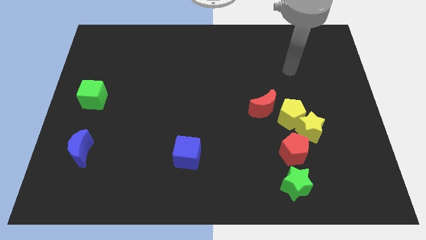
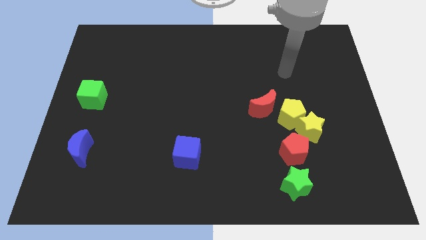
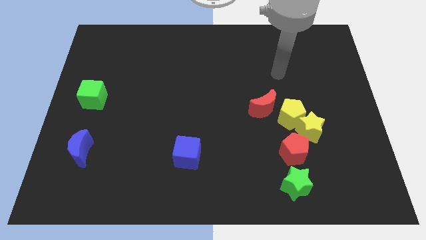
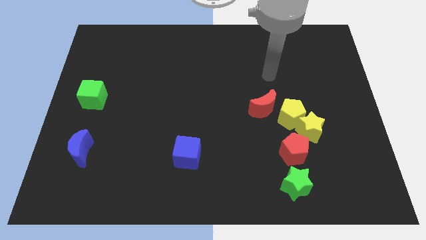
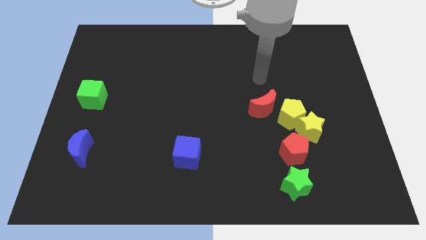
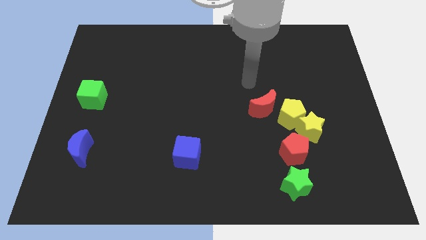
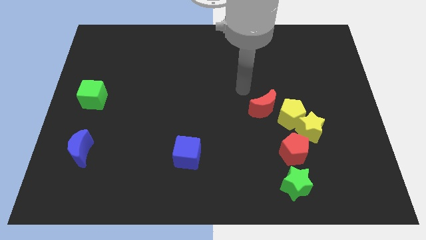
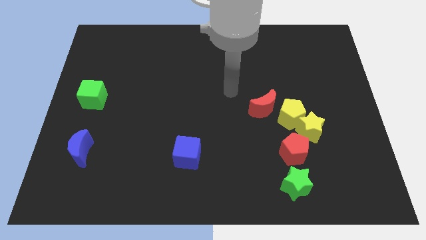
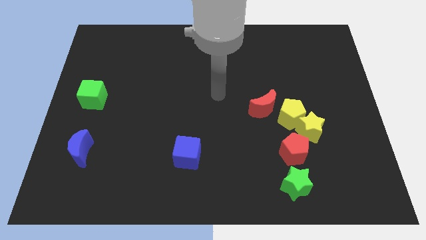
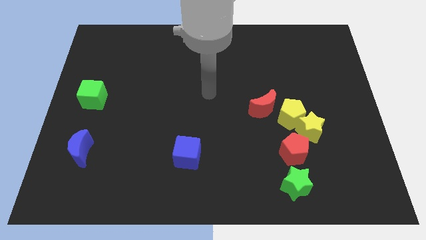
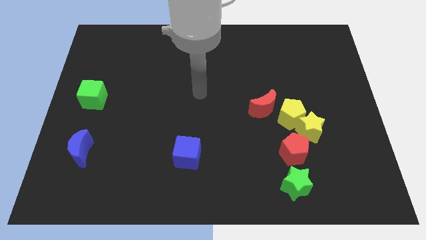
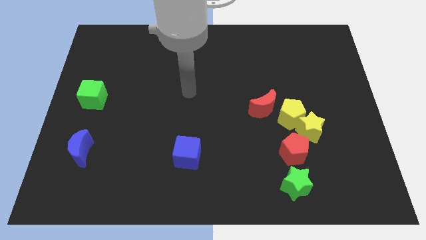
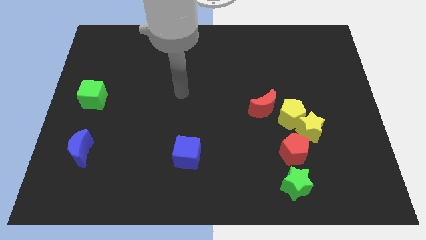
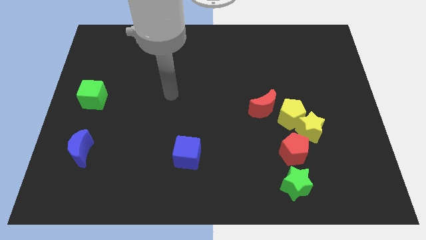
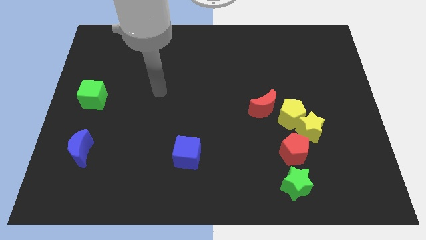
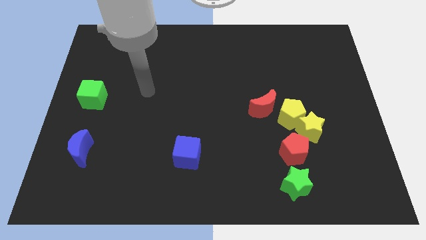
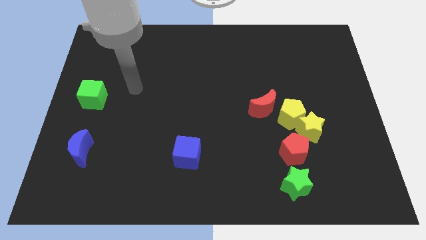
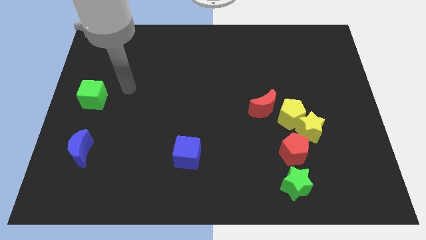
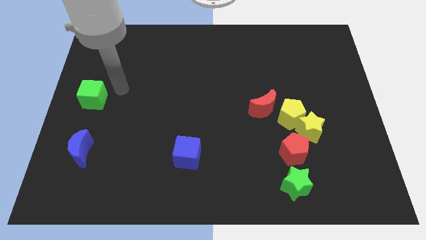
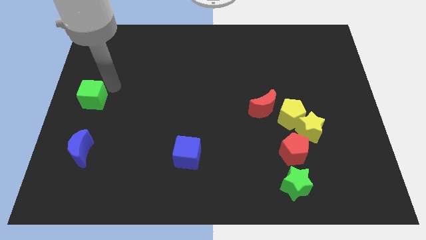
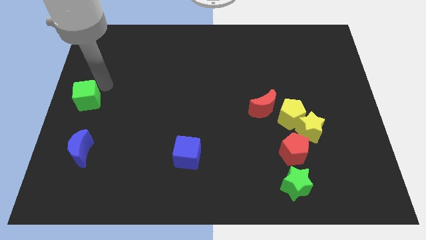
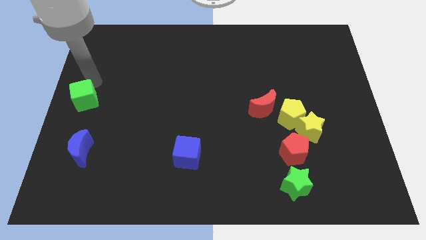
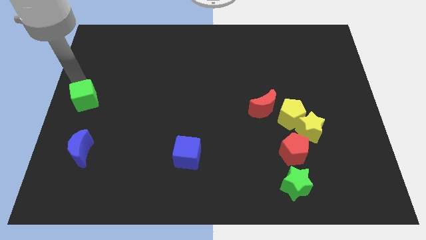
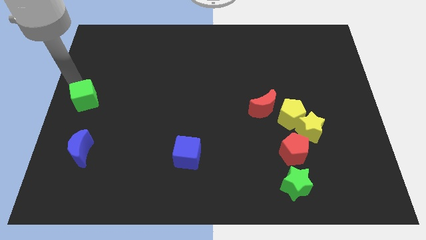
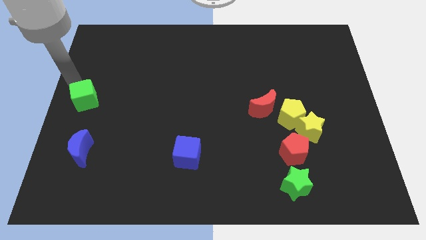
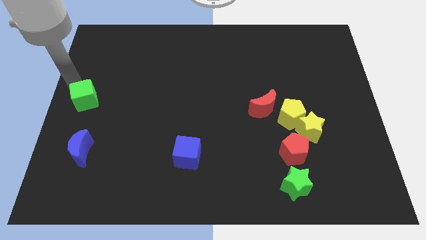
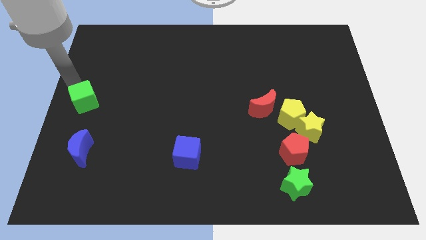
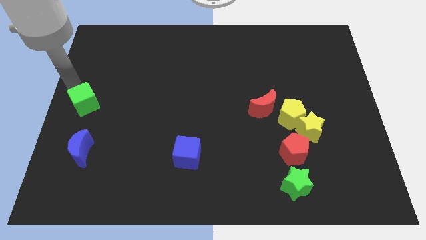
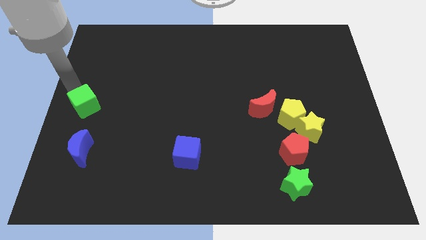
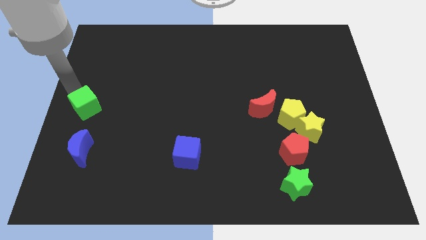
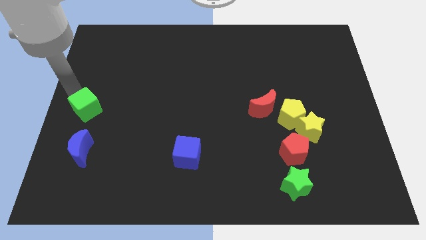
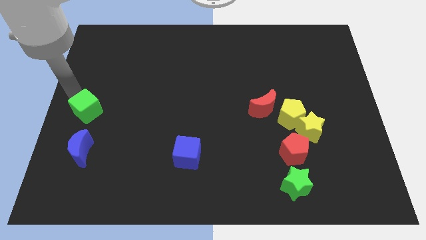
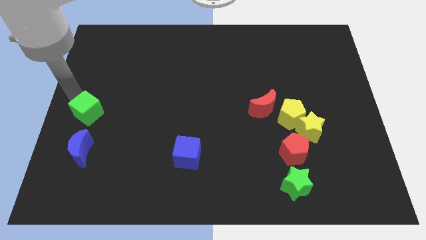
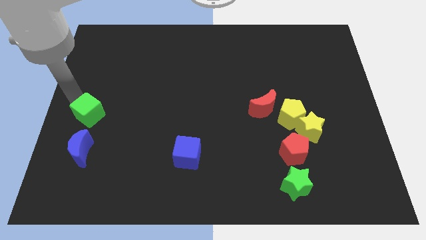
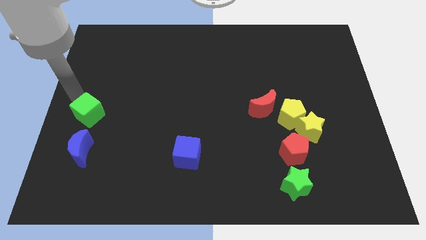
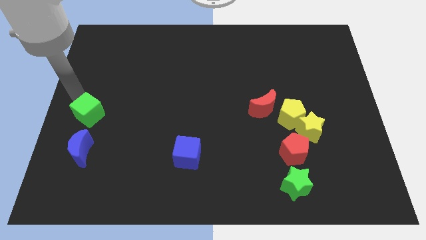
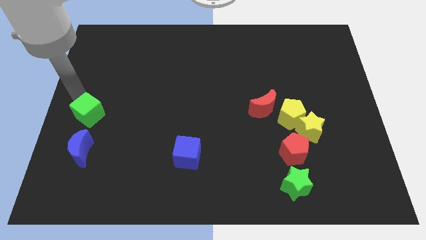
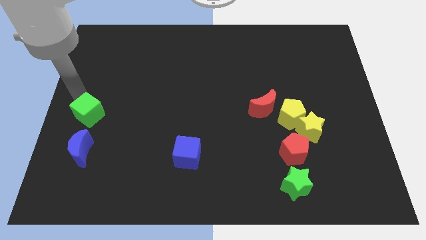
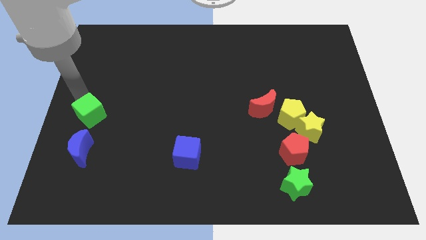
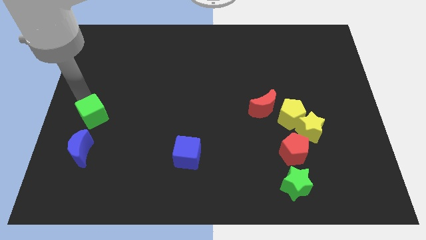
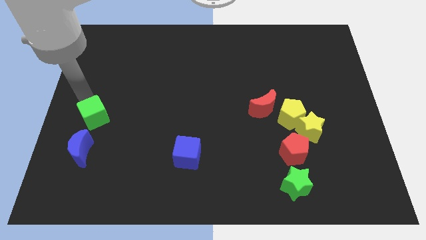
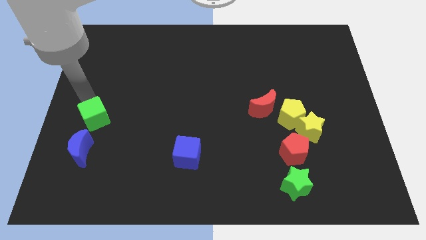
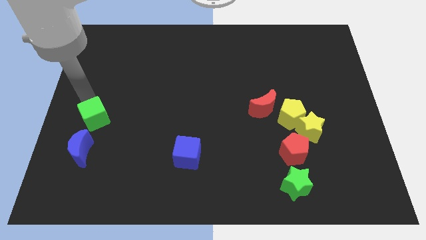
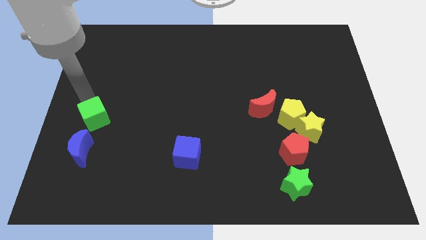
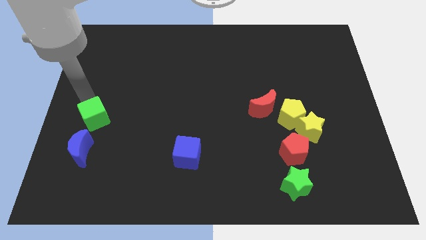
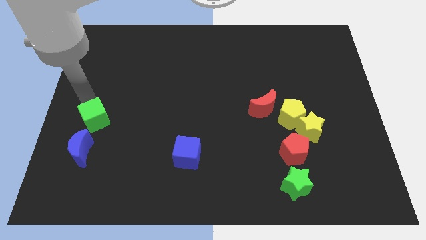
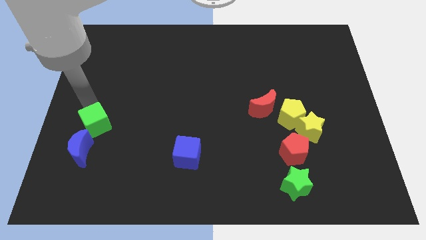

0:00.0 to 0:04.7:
slightly push the green cube down

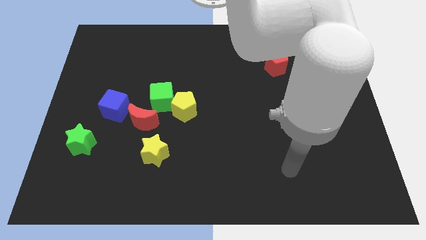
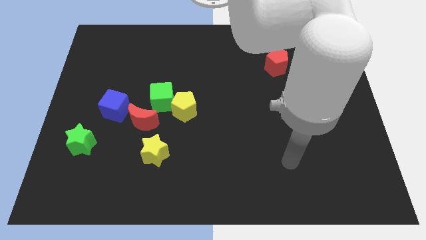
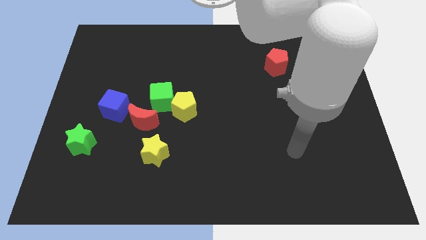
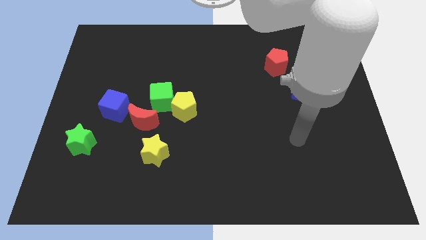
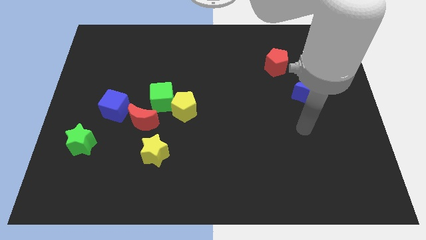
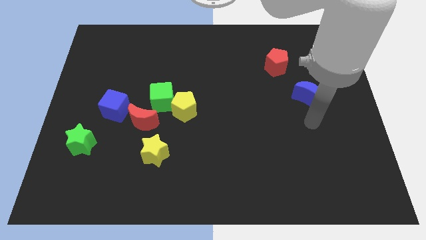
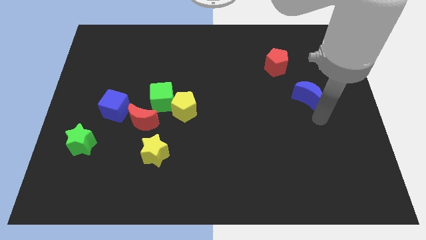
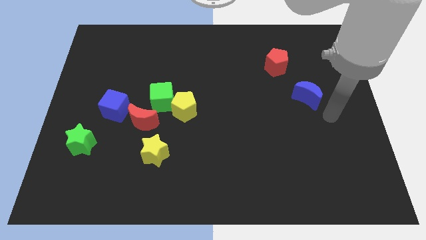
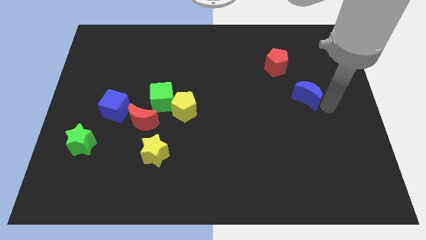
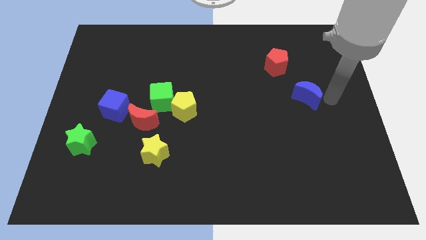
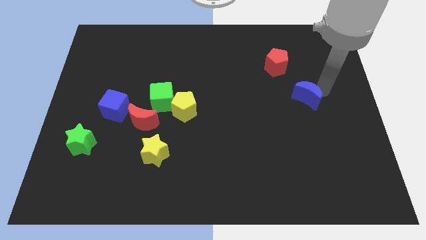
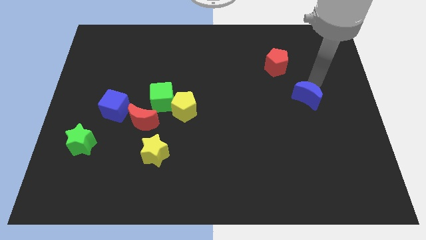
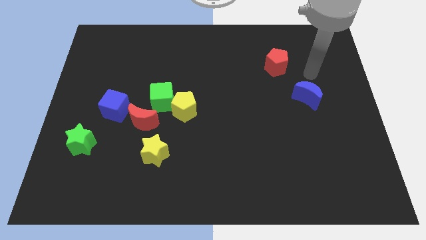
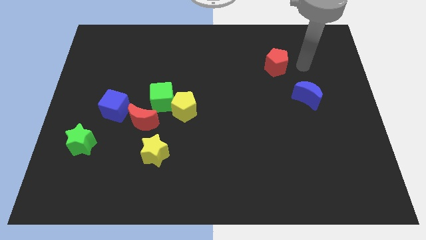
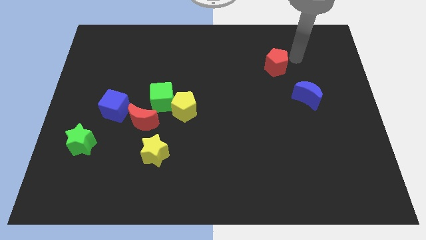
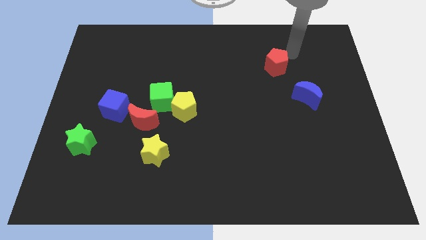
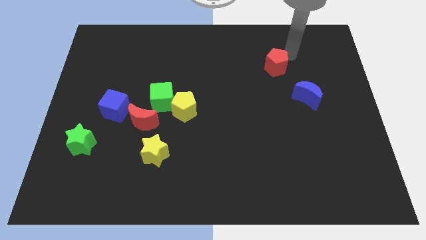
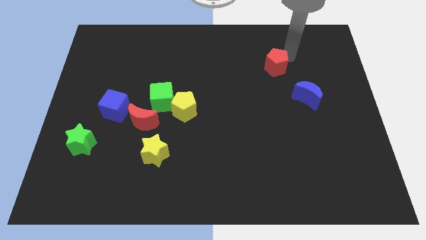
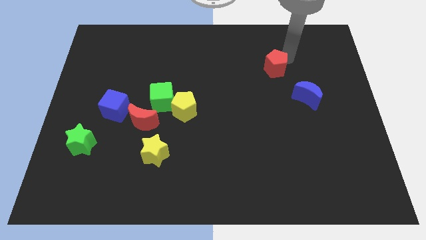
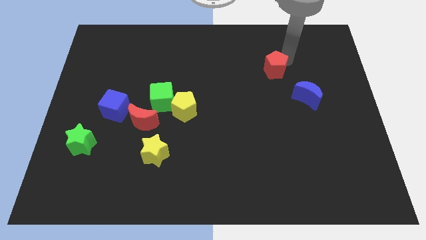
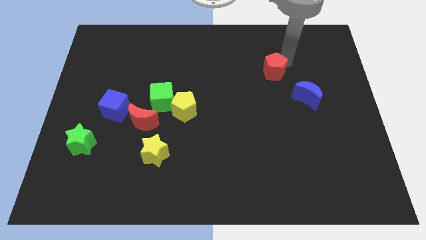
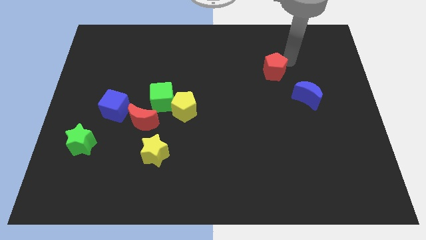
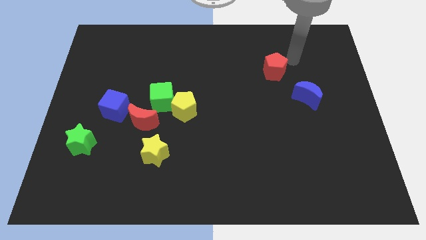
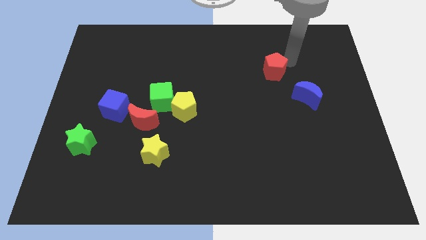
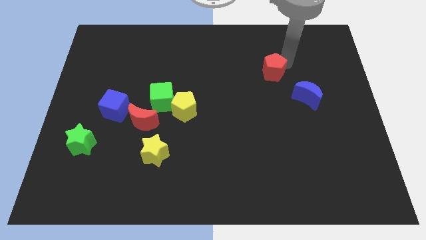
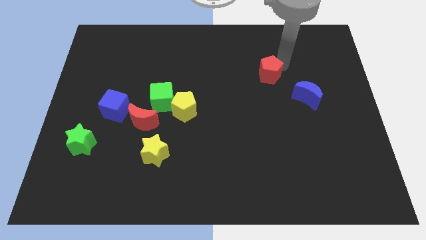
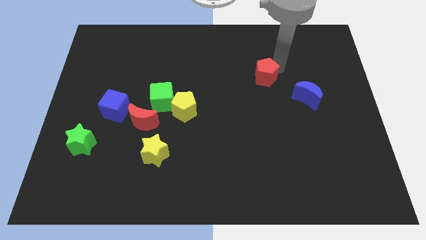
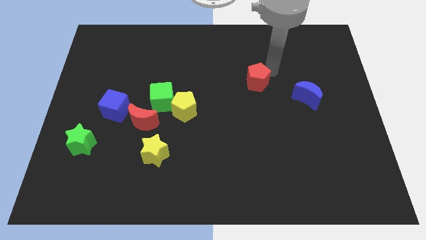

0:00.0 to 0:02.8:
move the red pentagon slightly downwards and then to the left

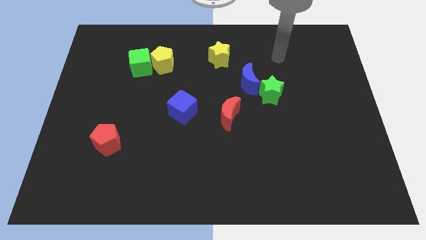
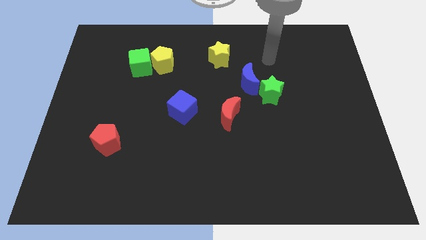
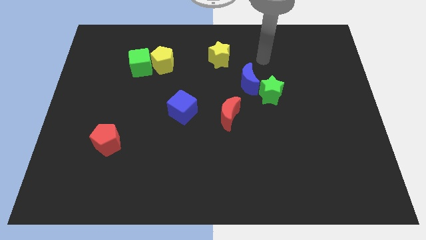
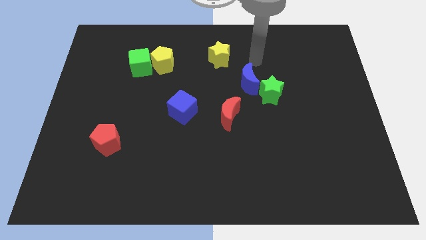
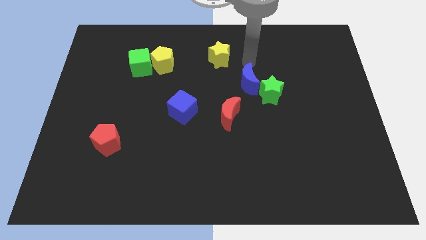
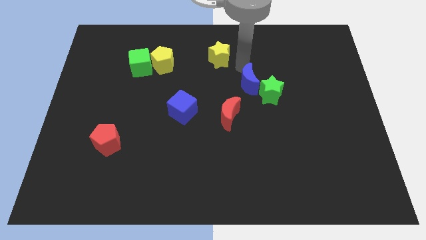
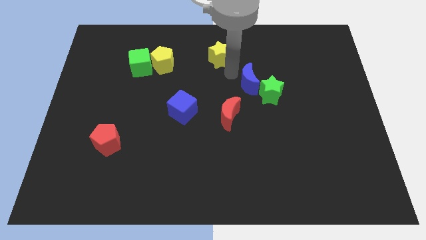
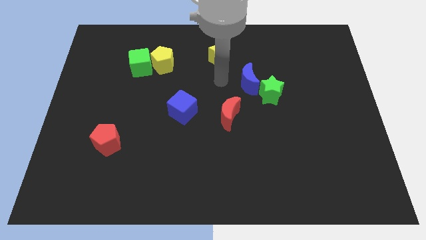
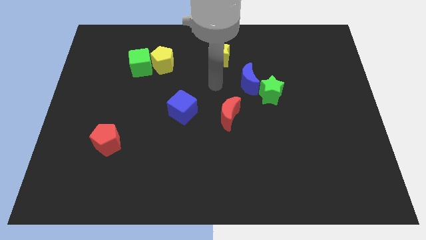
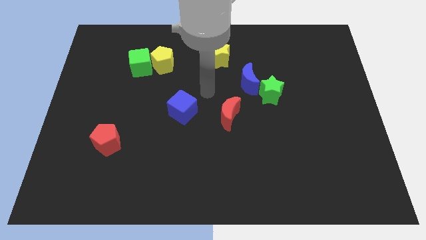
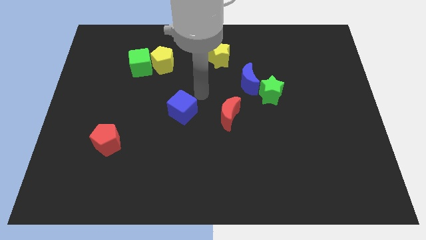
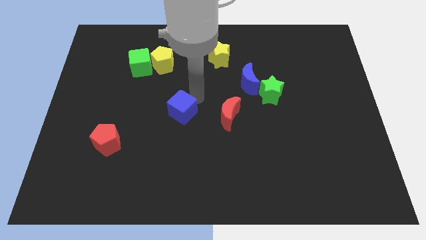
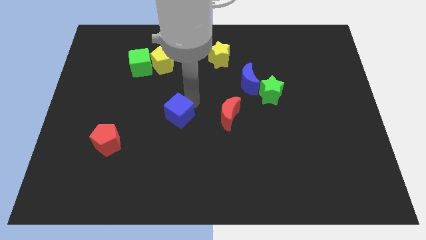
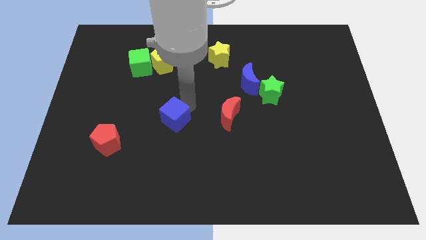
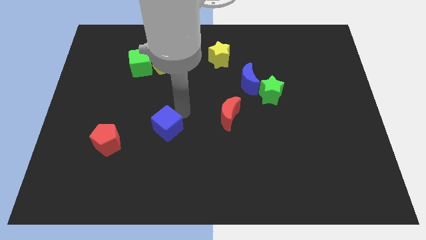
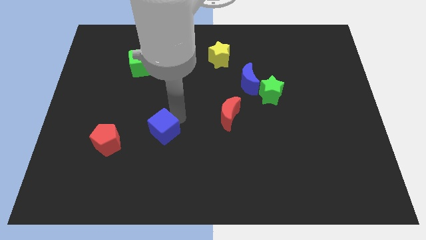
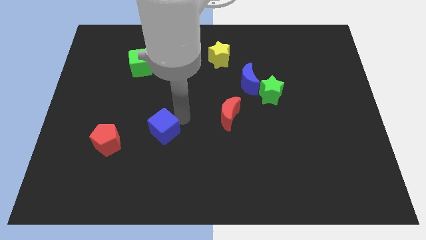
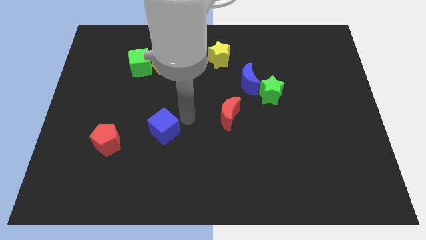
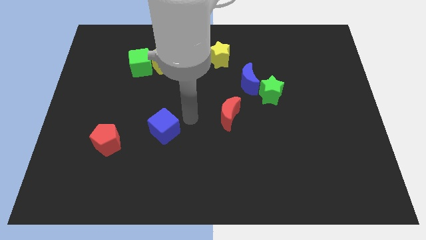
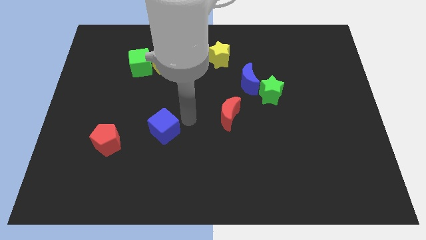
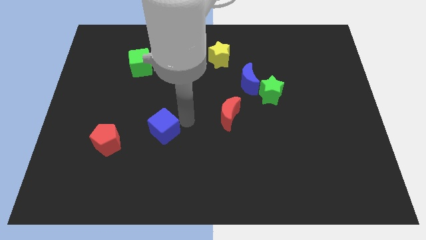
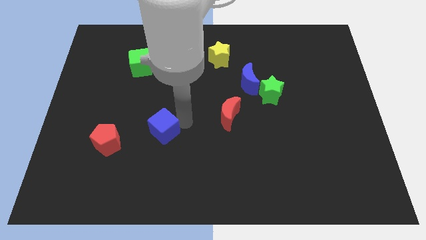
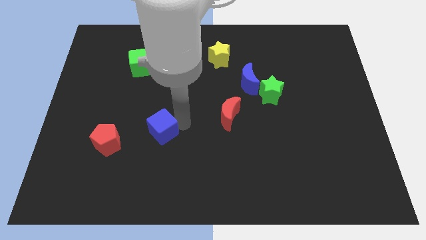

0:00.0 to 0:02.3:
move the blue cube a bit down and then left
